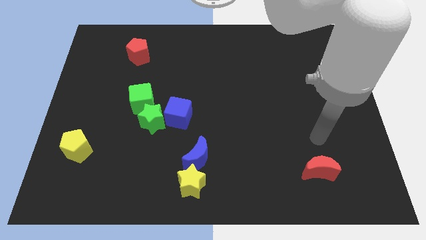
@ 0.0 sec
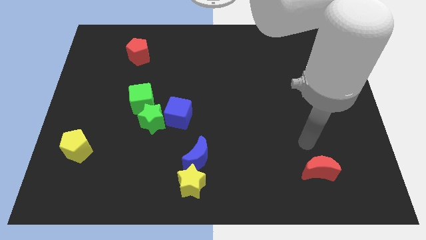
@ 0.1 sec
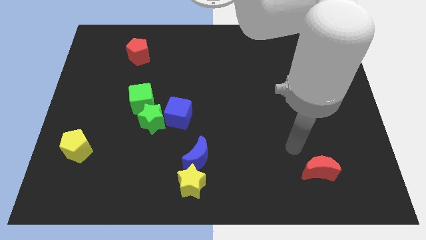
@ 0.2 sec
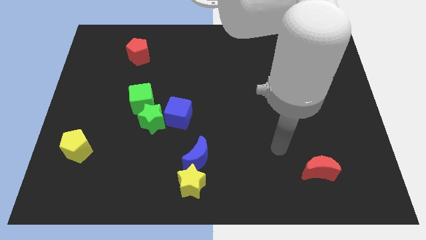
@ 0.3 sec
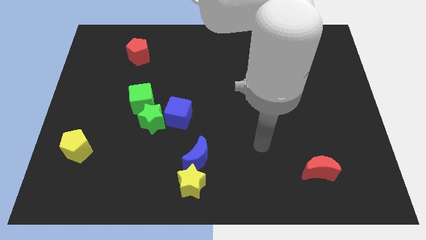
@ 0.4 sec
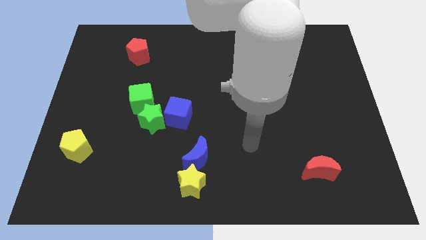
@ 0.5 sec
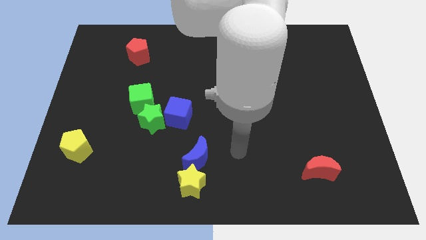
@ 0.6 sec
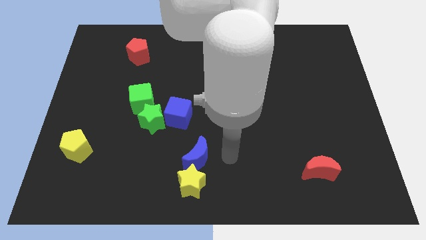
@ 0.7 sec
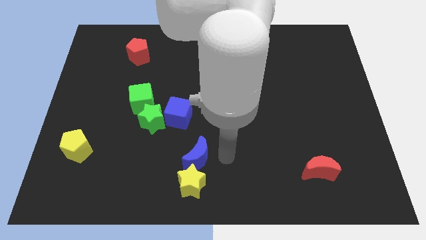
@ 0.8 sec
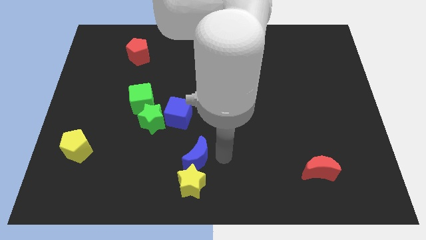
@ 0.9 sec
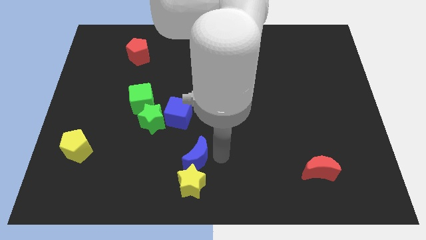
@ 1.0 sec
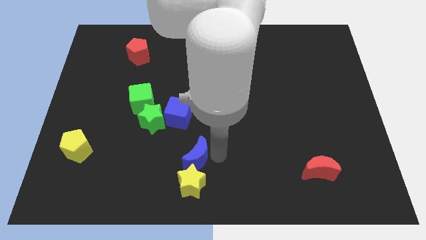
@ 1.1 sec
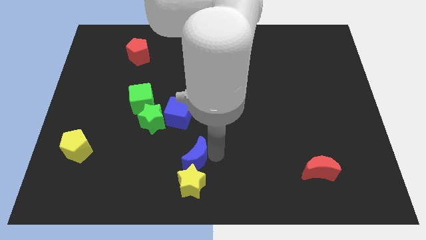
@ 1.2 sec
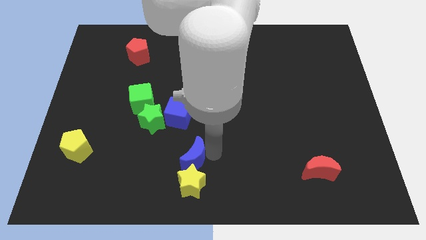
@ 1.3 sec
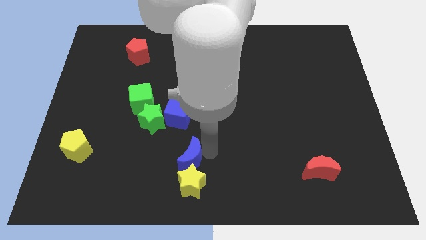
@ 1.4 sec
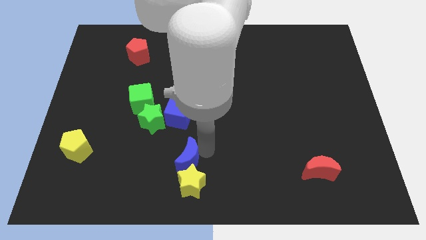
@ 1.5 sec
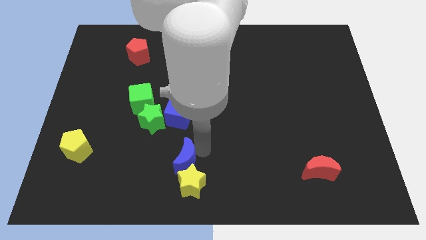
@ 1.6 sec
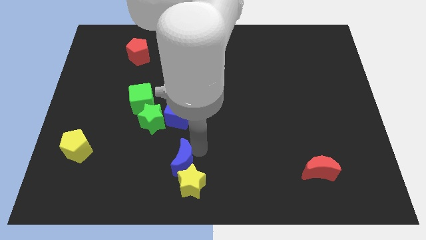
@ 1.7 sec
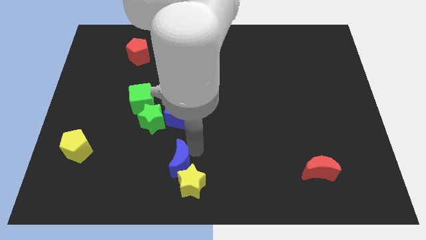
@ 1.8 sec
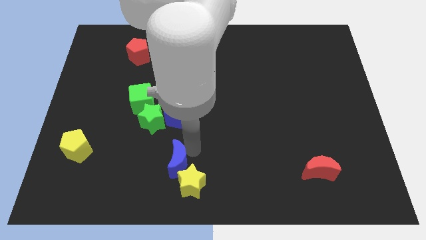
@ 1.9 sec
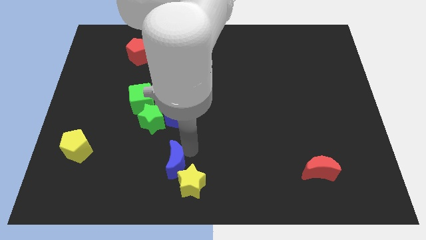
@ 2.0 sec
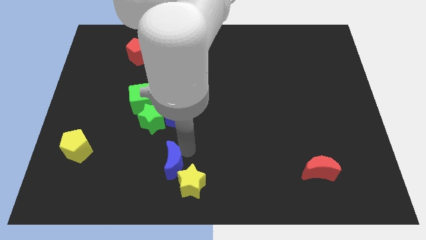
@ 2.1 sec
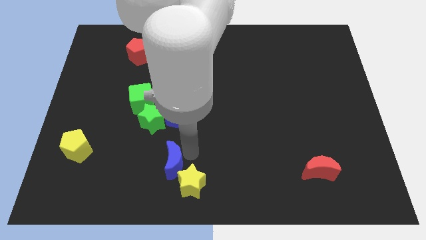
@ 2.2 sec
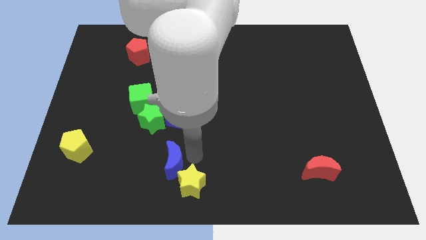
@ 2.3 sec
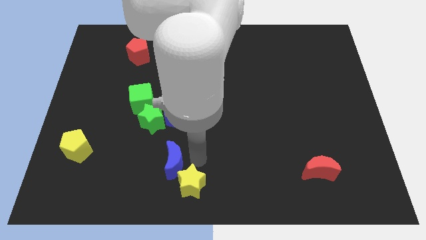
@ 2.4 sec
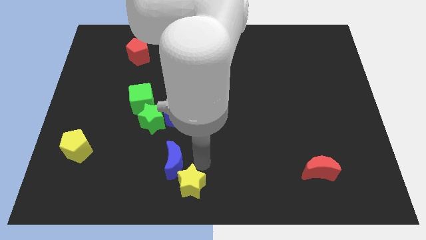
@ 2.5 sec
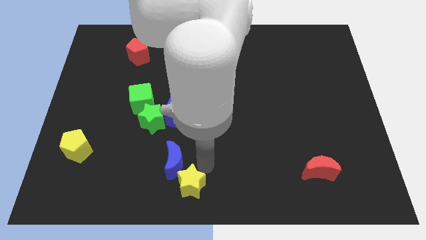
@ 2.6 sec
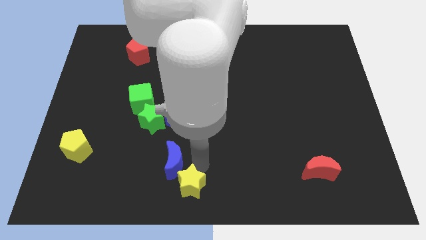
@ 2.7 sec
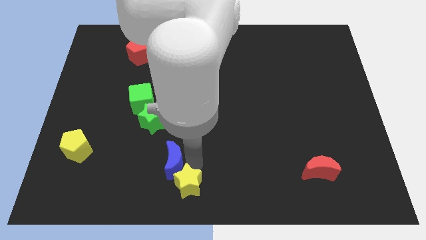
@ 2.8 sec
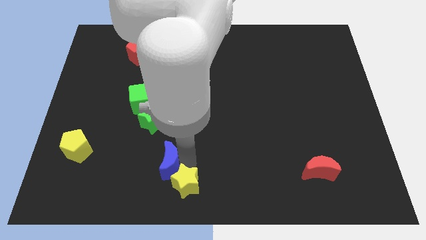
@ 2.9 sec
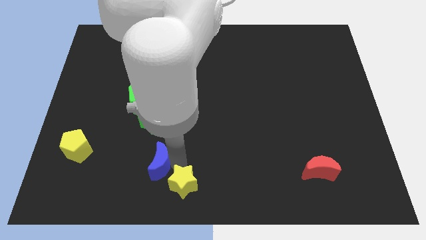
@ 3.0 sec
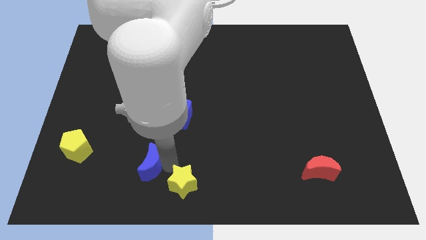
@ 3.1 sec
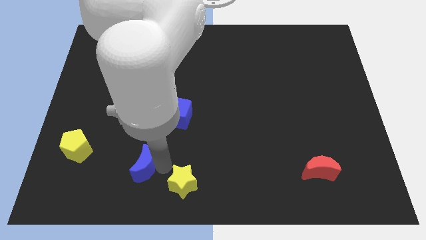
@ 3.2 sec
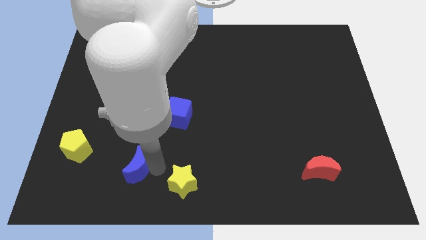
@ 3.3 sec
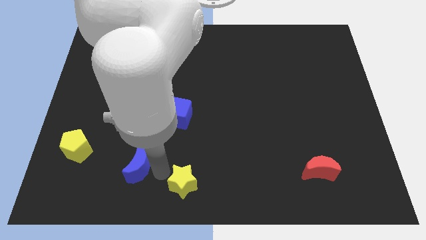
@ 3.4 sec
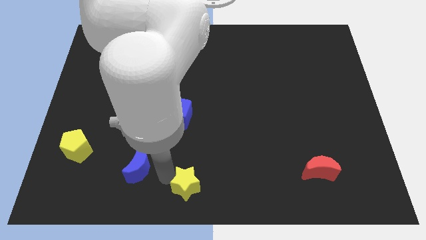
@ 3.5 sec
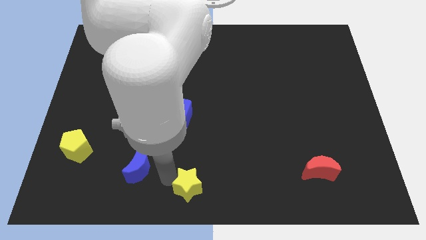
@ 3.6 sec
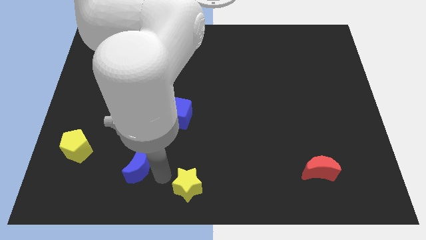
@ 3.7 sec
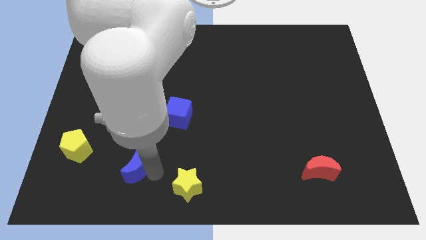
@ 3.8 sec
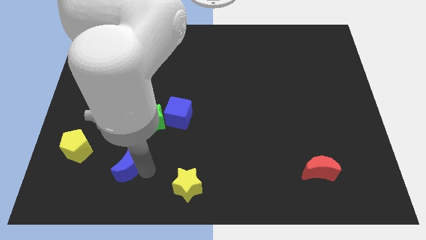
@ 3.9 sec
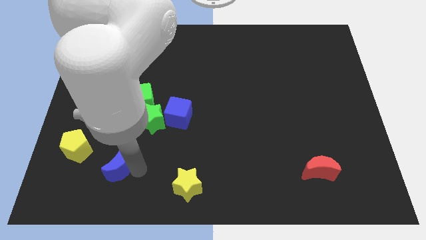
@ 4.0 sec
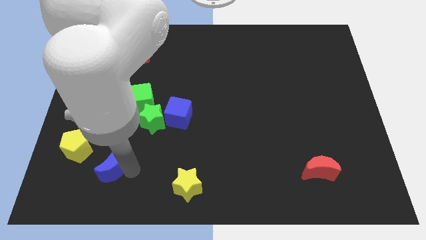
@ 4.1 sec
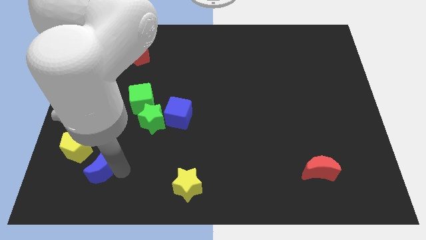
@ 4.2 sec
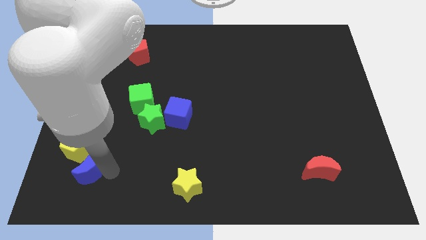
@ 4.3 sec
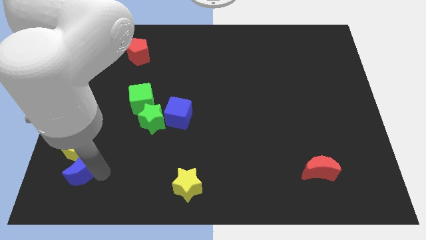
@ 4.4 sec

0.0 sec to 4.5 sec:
push the blue moon next to the yellow pentagon

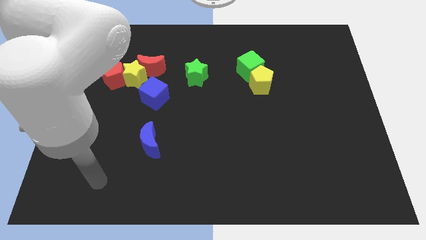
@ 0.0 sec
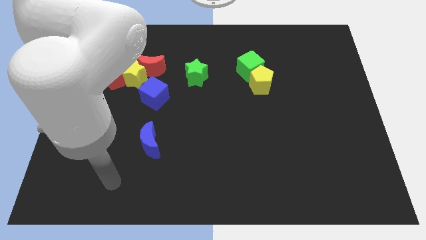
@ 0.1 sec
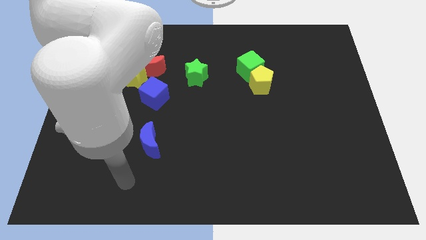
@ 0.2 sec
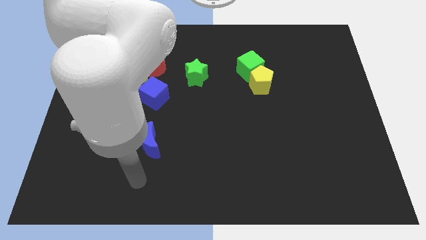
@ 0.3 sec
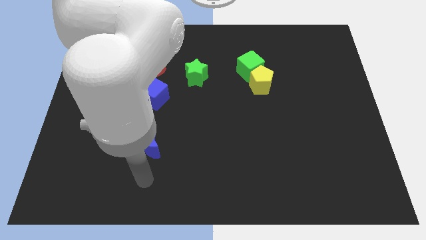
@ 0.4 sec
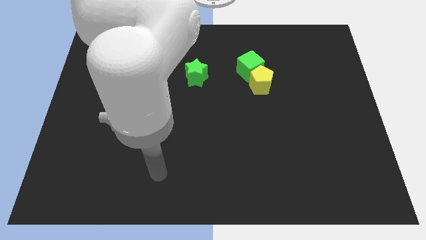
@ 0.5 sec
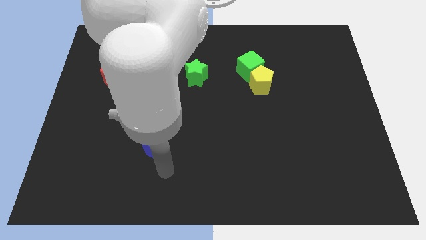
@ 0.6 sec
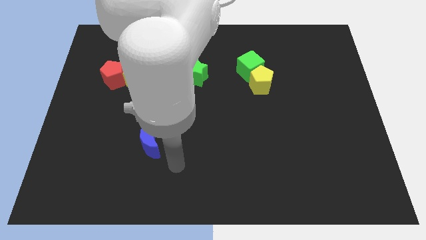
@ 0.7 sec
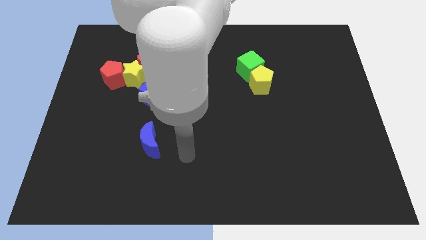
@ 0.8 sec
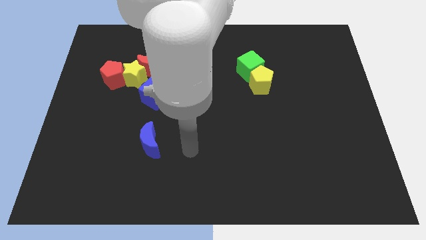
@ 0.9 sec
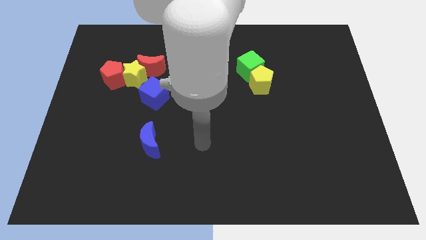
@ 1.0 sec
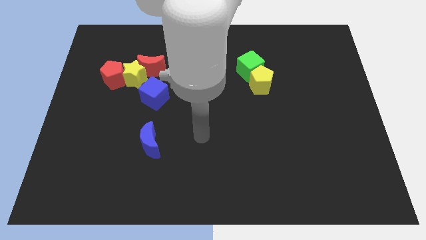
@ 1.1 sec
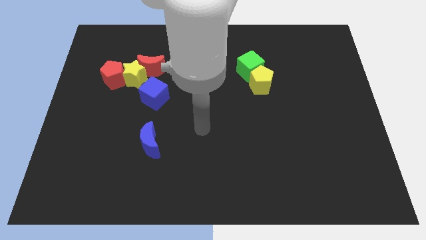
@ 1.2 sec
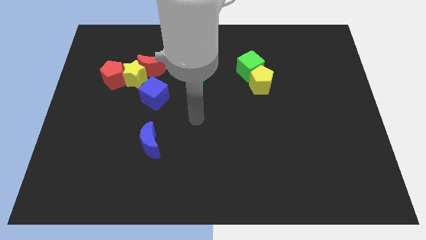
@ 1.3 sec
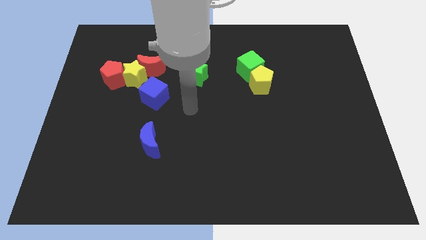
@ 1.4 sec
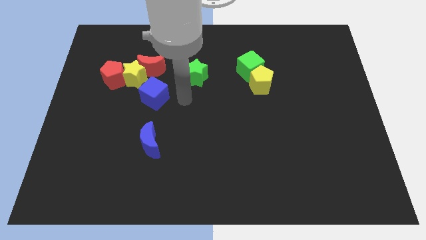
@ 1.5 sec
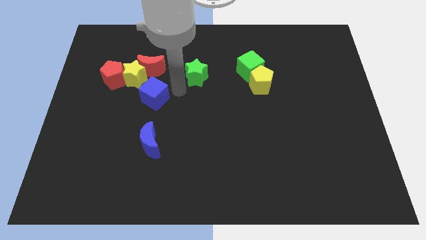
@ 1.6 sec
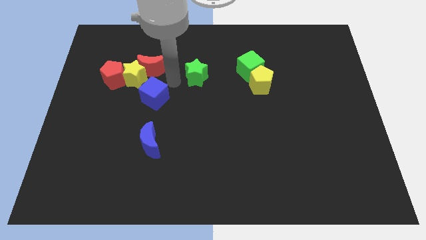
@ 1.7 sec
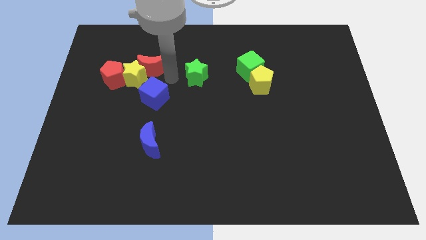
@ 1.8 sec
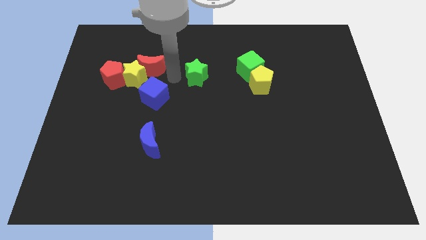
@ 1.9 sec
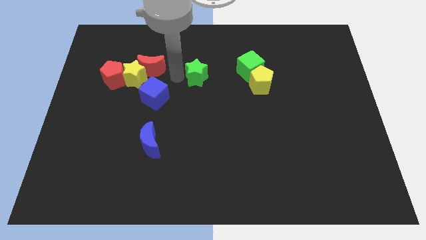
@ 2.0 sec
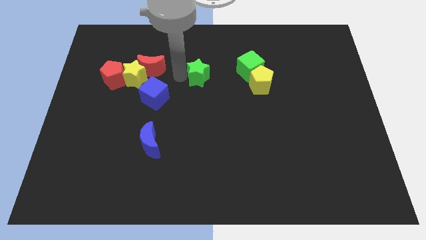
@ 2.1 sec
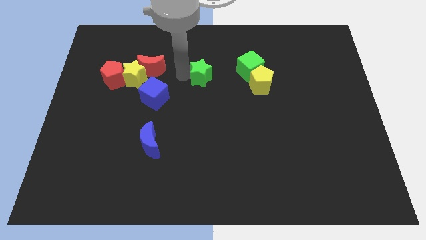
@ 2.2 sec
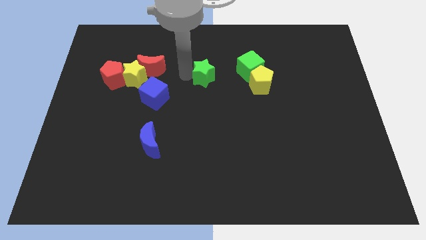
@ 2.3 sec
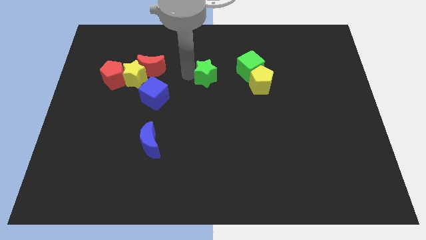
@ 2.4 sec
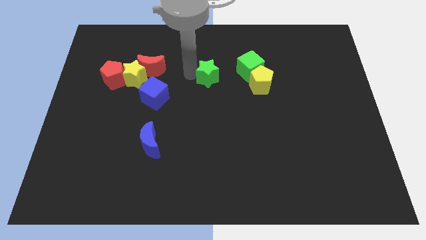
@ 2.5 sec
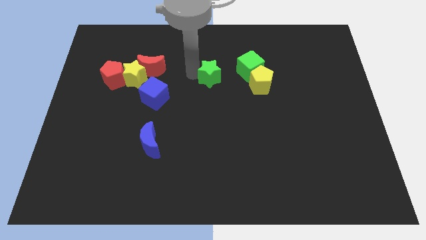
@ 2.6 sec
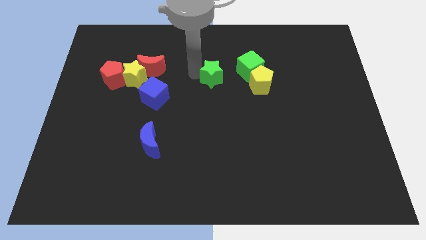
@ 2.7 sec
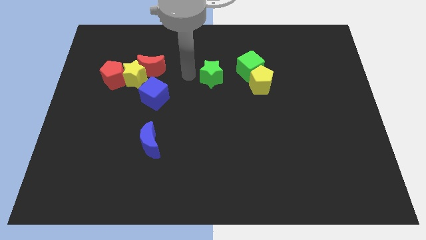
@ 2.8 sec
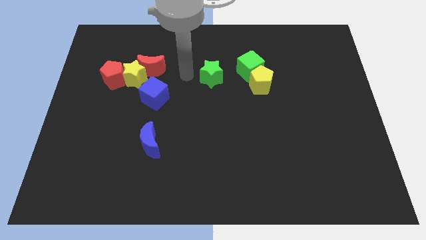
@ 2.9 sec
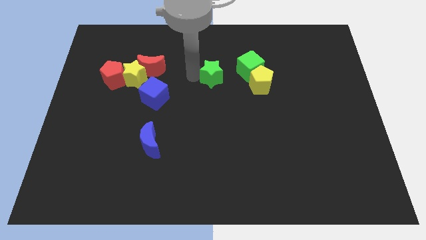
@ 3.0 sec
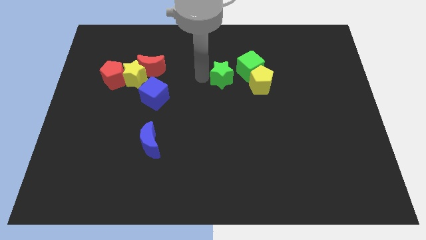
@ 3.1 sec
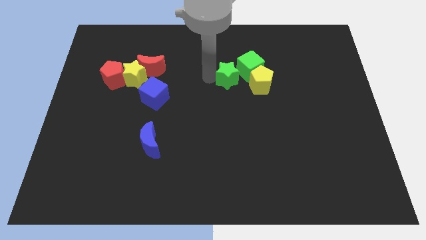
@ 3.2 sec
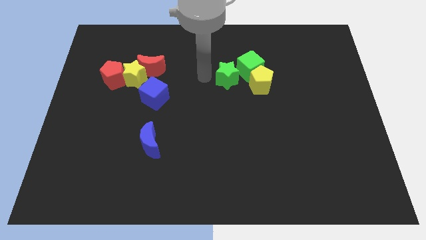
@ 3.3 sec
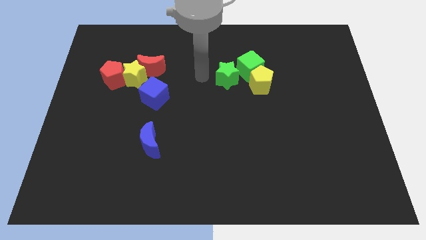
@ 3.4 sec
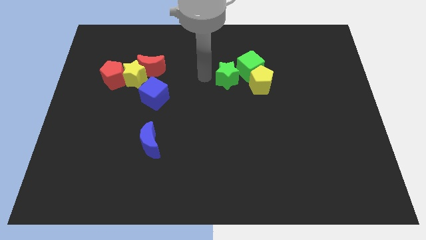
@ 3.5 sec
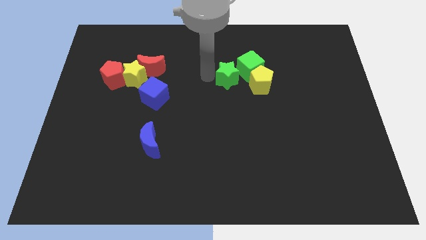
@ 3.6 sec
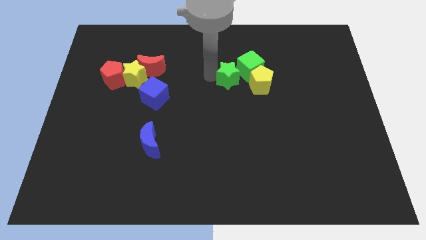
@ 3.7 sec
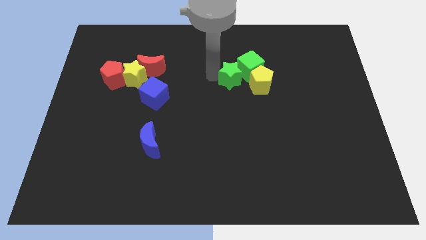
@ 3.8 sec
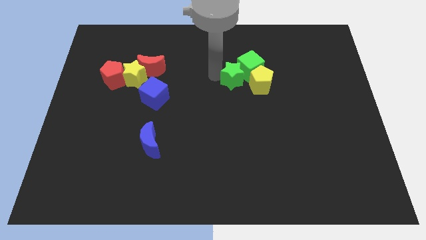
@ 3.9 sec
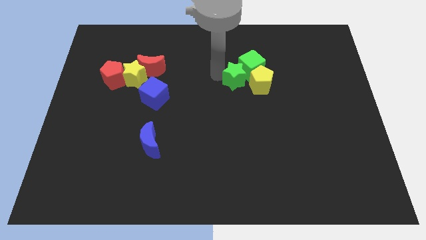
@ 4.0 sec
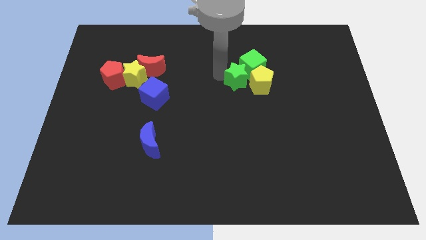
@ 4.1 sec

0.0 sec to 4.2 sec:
put the green star to the yellow pentagon
